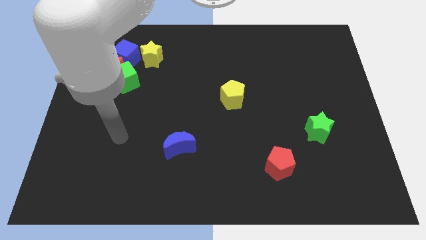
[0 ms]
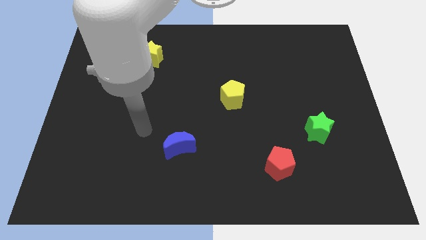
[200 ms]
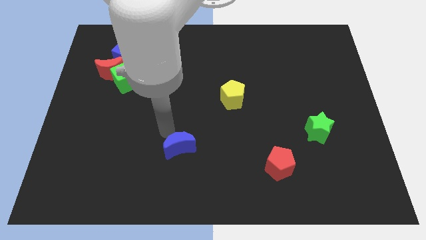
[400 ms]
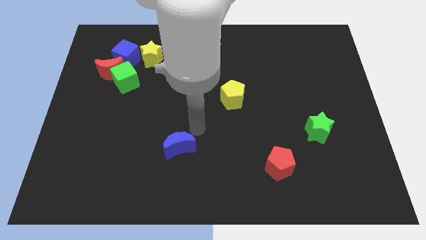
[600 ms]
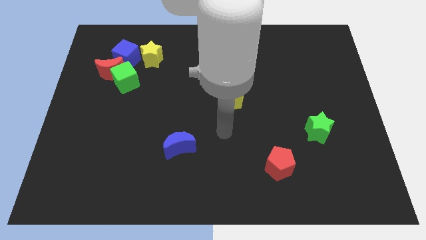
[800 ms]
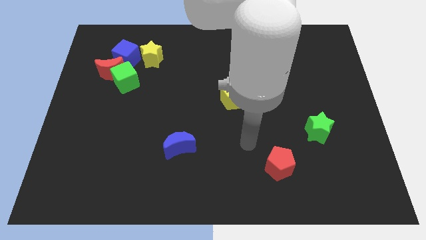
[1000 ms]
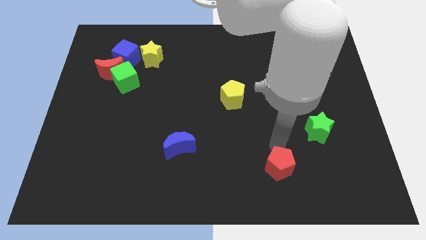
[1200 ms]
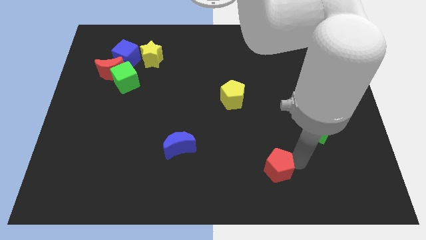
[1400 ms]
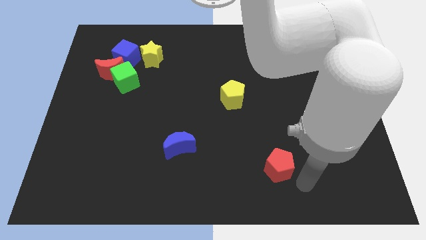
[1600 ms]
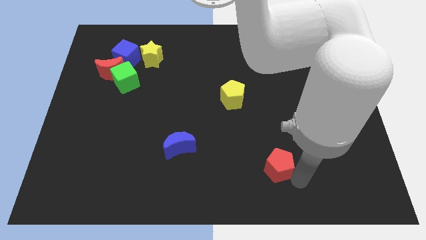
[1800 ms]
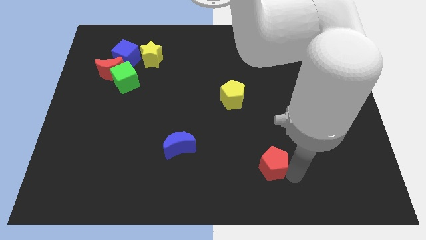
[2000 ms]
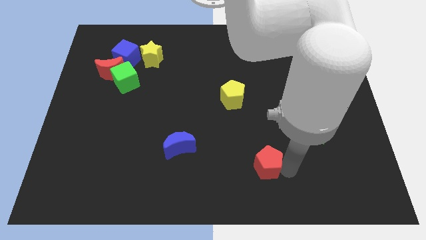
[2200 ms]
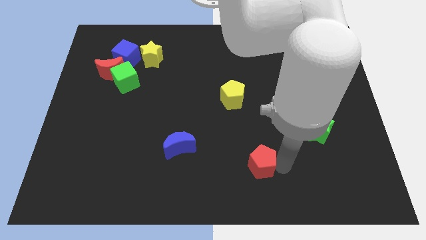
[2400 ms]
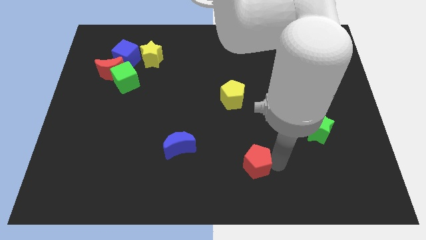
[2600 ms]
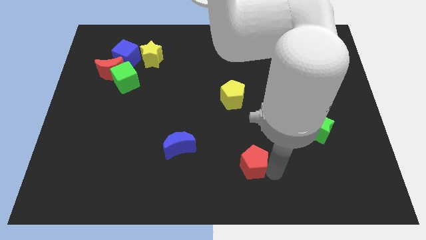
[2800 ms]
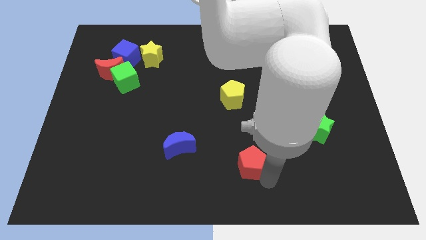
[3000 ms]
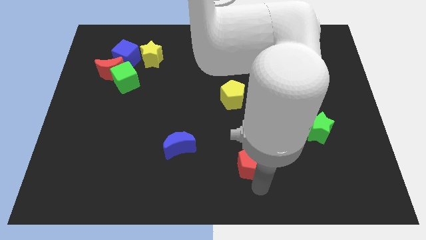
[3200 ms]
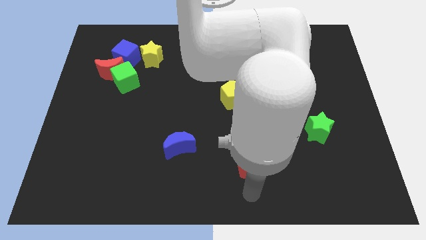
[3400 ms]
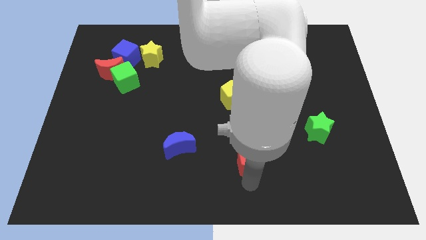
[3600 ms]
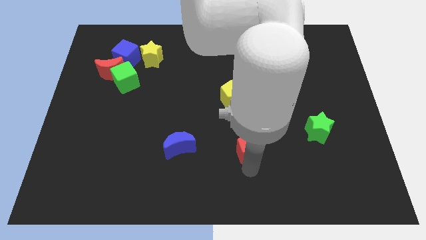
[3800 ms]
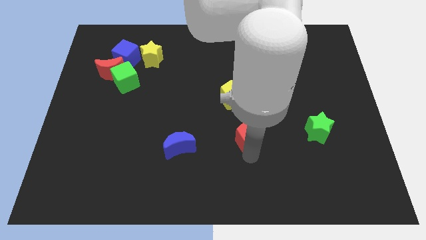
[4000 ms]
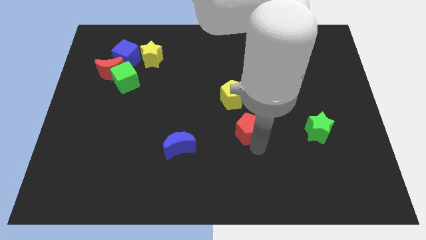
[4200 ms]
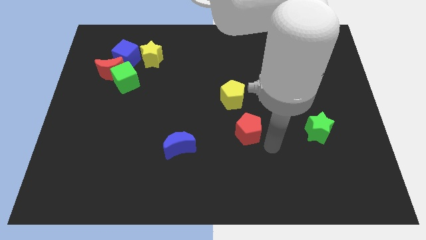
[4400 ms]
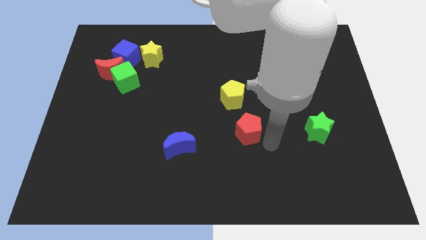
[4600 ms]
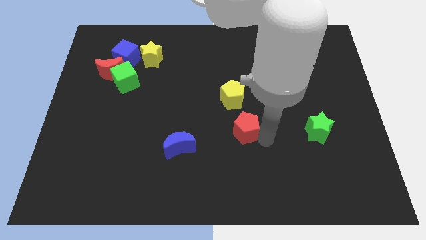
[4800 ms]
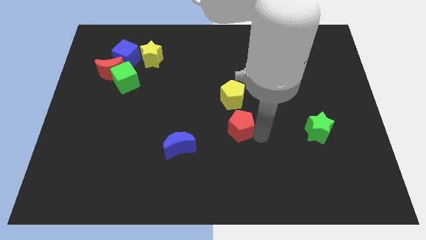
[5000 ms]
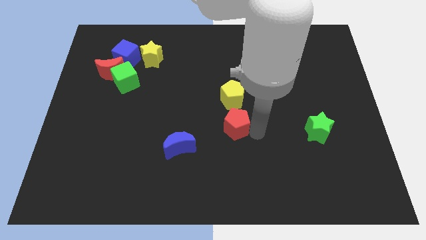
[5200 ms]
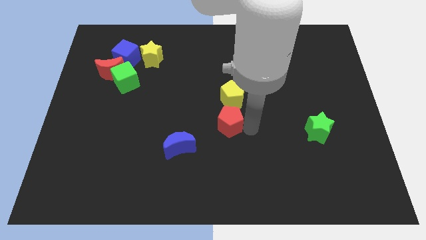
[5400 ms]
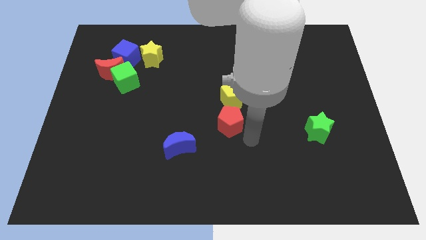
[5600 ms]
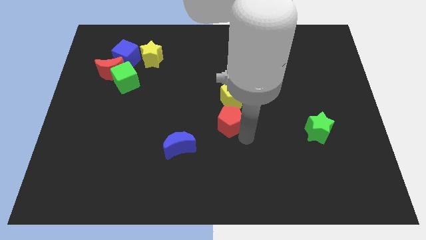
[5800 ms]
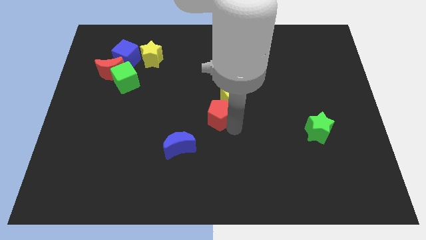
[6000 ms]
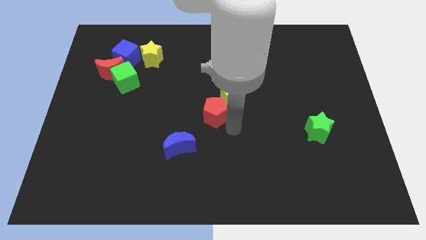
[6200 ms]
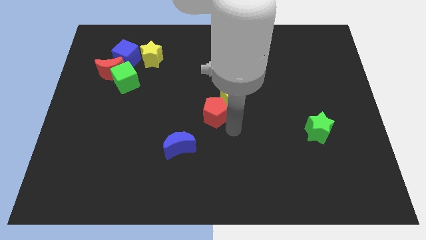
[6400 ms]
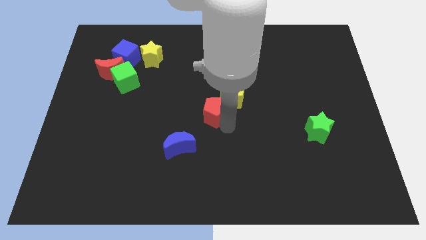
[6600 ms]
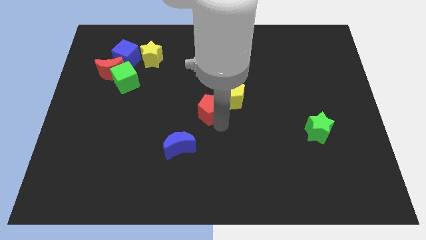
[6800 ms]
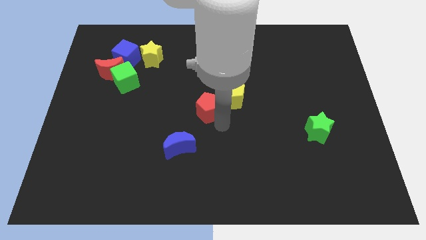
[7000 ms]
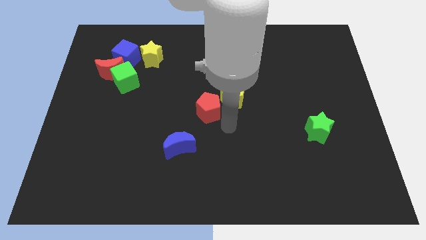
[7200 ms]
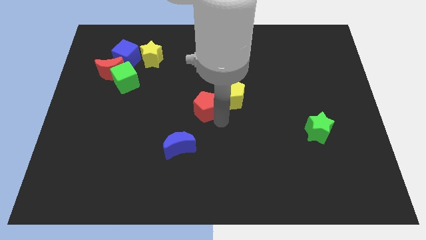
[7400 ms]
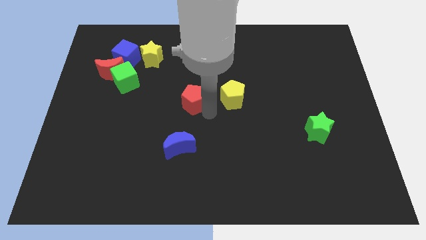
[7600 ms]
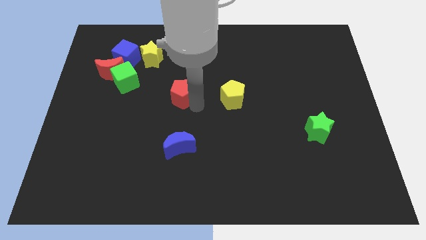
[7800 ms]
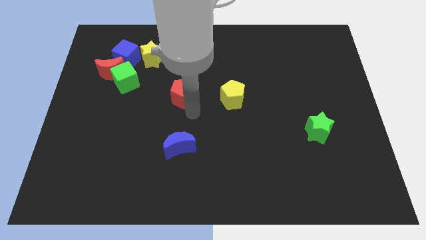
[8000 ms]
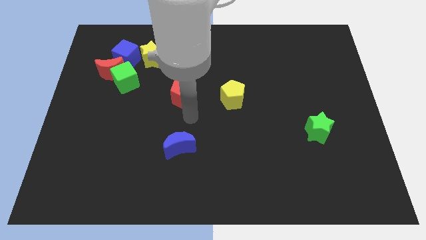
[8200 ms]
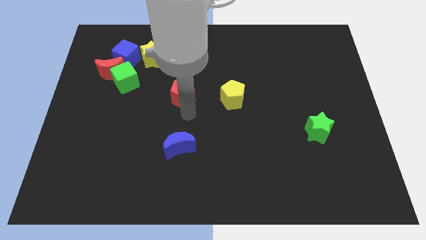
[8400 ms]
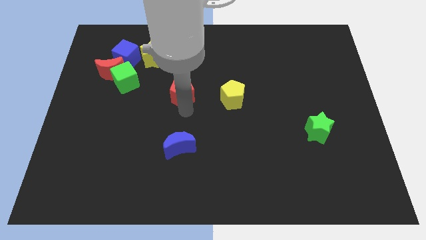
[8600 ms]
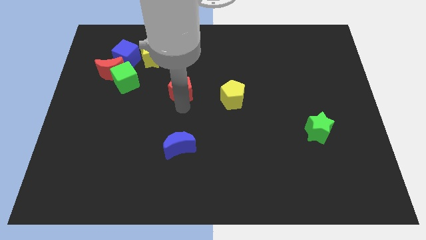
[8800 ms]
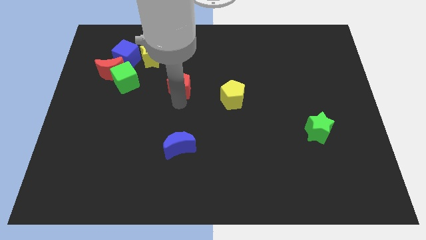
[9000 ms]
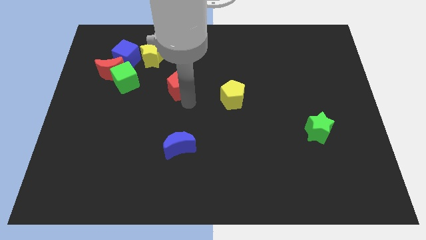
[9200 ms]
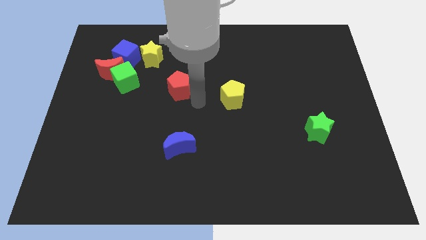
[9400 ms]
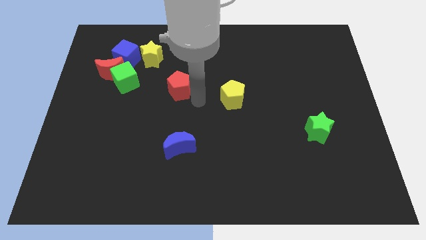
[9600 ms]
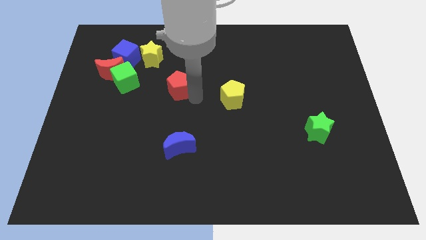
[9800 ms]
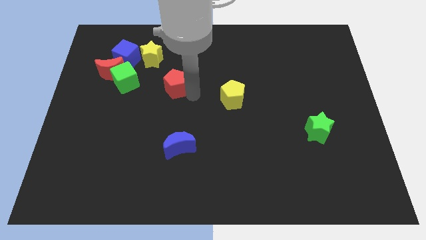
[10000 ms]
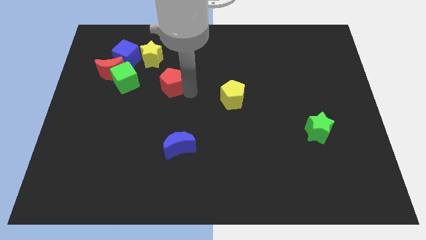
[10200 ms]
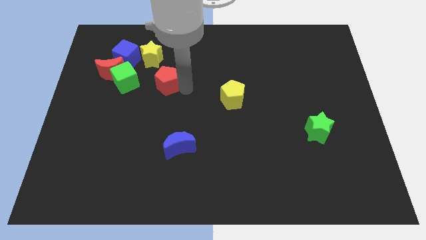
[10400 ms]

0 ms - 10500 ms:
put the red pentagon to the right of the red moon

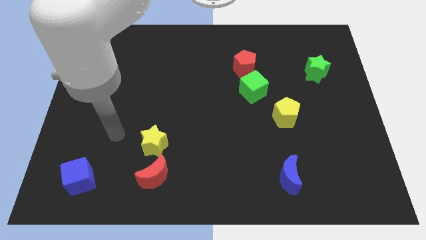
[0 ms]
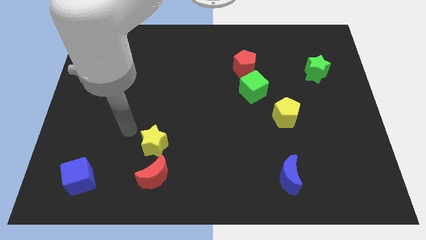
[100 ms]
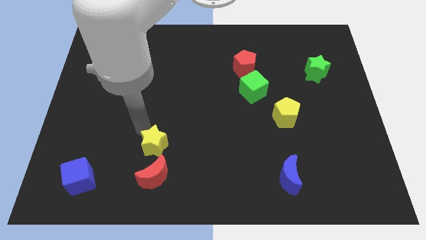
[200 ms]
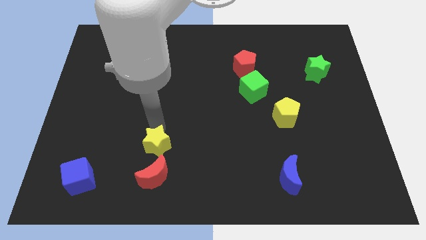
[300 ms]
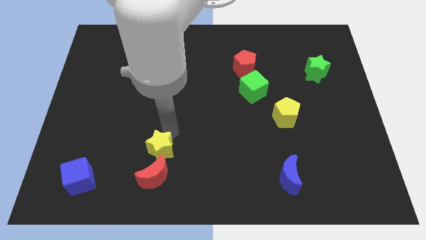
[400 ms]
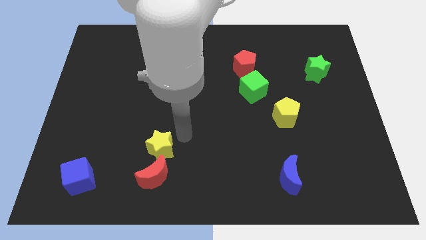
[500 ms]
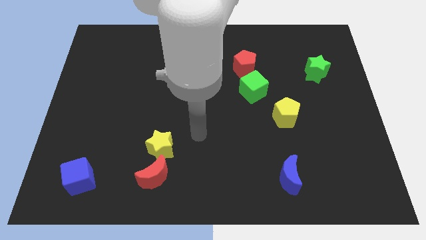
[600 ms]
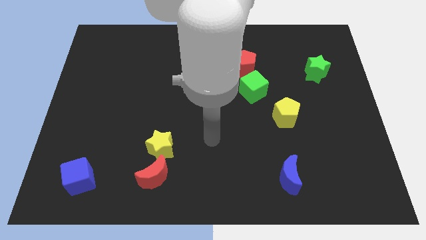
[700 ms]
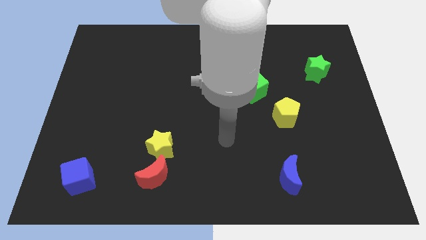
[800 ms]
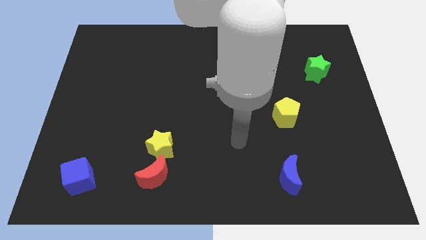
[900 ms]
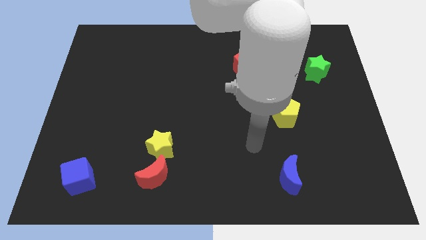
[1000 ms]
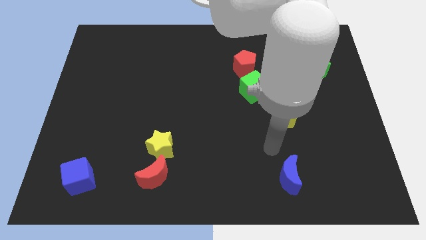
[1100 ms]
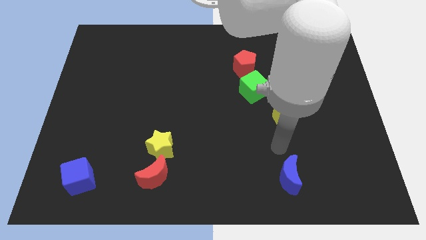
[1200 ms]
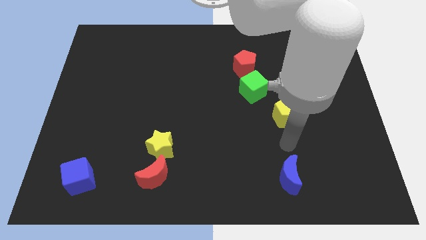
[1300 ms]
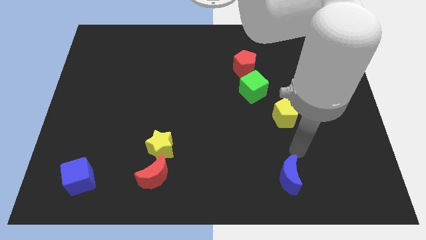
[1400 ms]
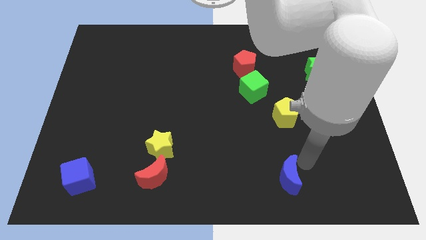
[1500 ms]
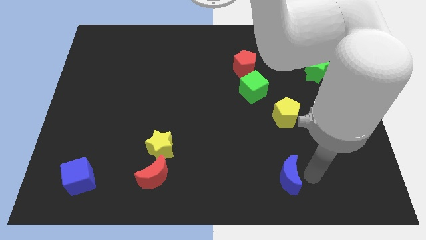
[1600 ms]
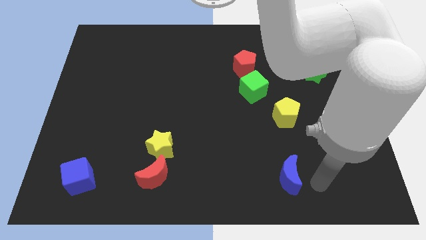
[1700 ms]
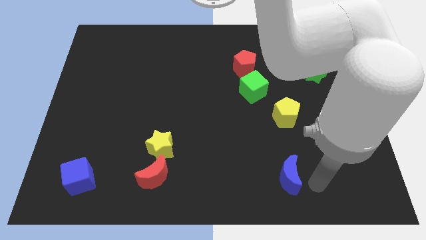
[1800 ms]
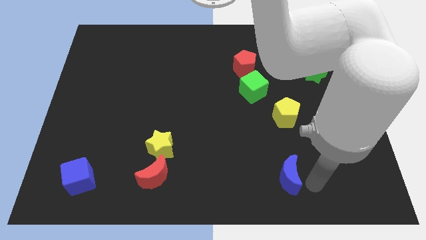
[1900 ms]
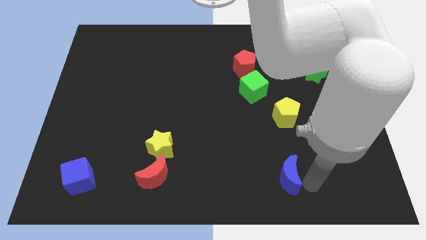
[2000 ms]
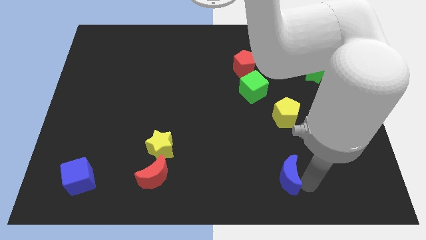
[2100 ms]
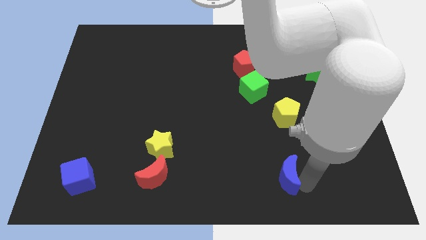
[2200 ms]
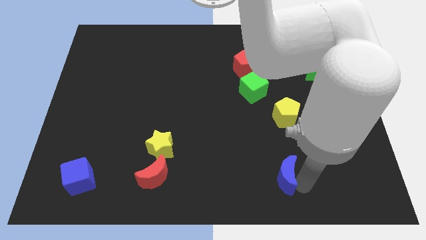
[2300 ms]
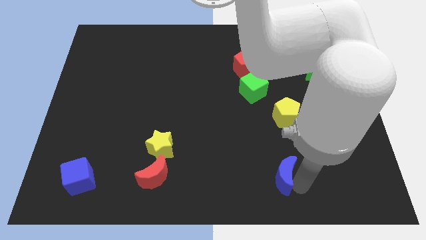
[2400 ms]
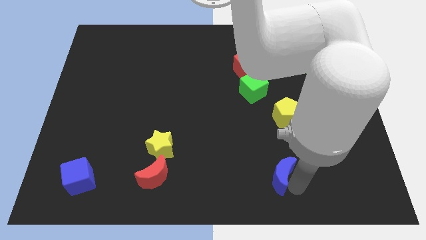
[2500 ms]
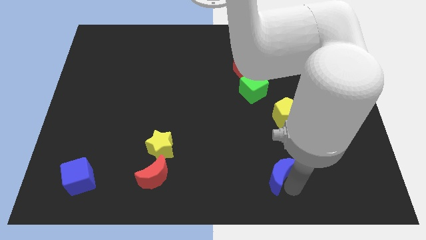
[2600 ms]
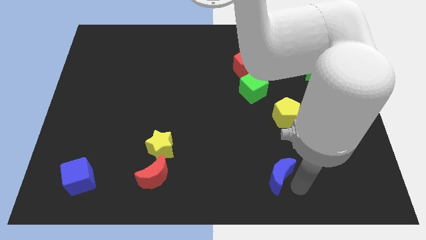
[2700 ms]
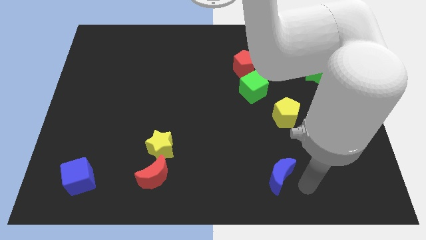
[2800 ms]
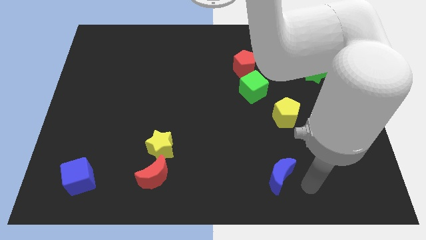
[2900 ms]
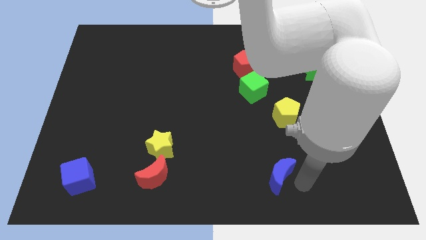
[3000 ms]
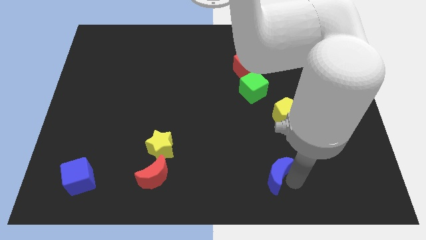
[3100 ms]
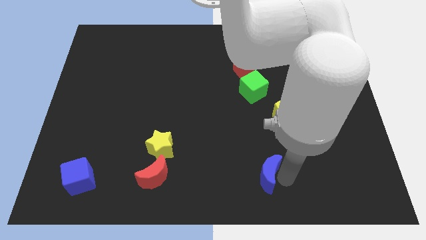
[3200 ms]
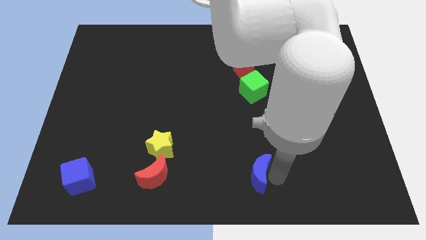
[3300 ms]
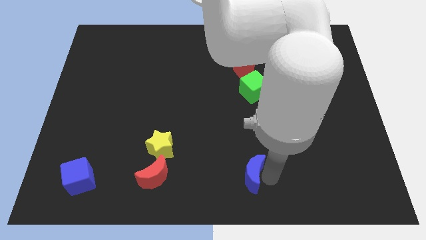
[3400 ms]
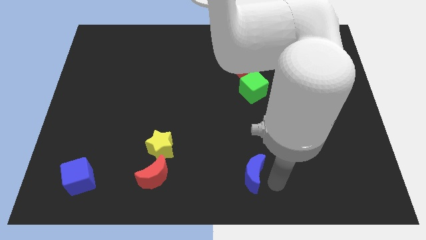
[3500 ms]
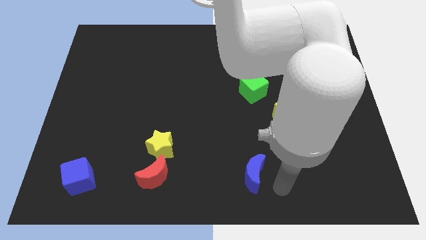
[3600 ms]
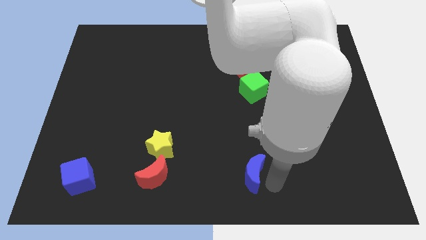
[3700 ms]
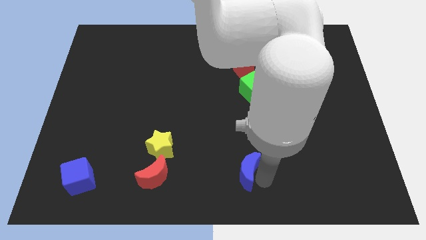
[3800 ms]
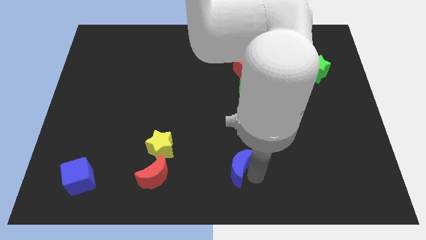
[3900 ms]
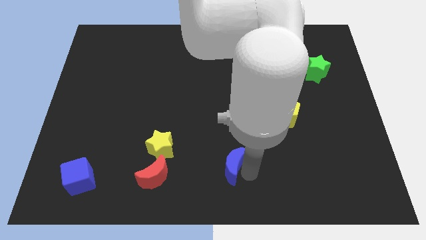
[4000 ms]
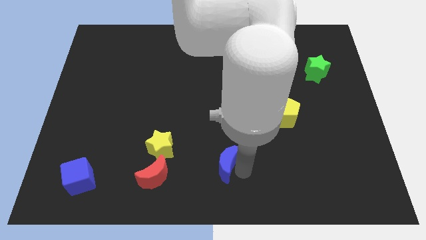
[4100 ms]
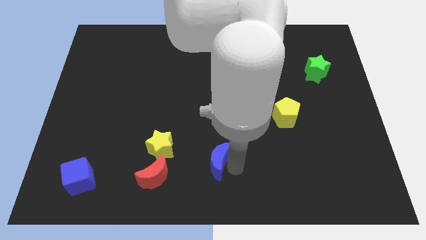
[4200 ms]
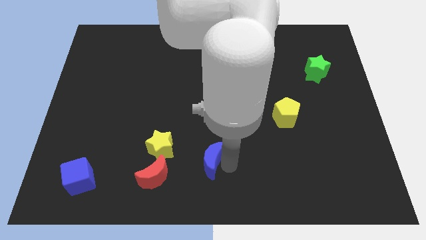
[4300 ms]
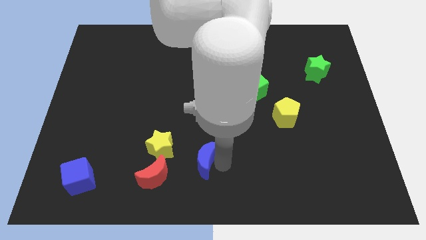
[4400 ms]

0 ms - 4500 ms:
move the blue moon to the top right of the red moon
